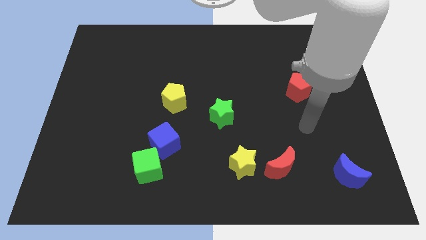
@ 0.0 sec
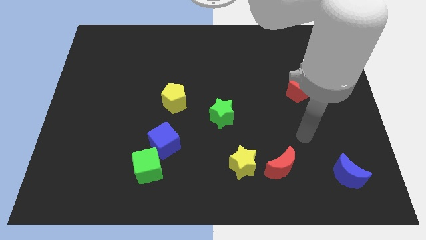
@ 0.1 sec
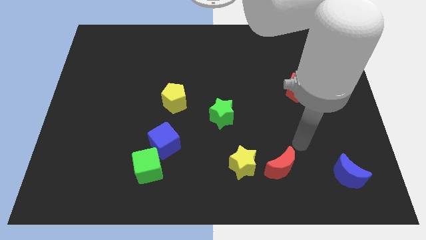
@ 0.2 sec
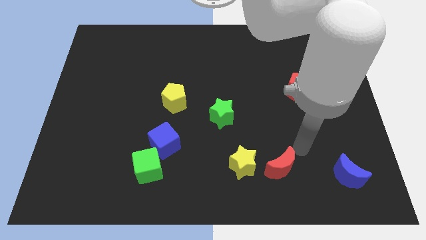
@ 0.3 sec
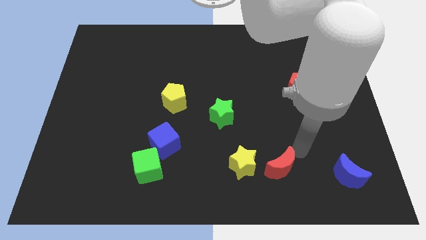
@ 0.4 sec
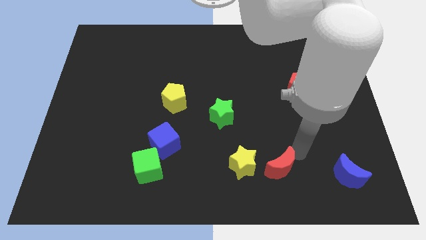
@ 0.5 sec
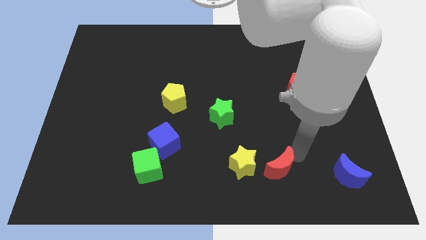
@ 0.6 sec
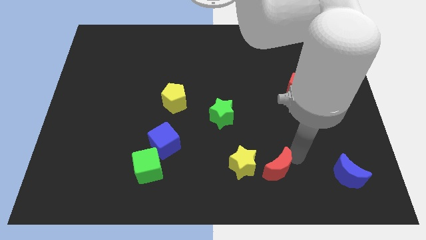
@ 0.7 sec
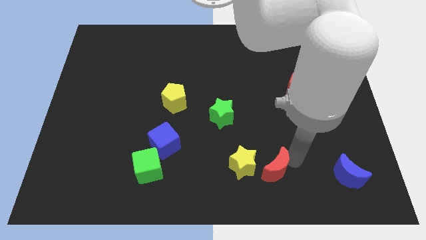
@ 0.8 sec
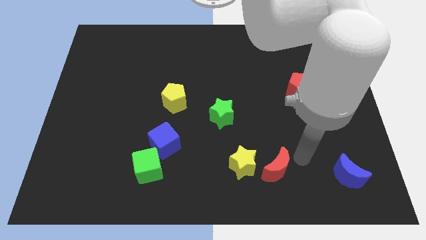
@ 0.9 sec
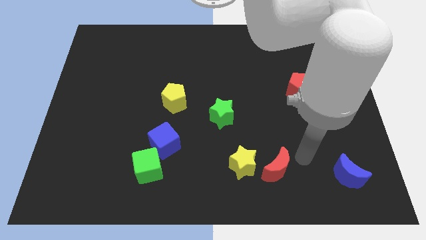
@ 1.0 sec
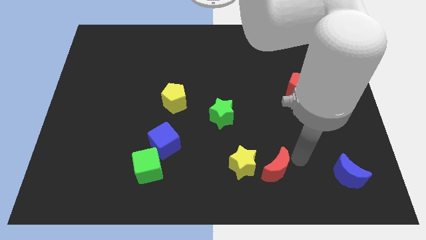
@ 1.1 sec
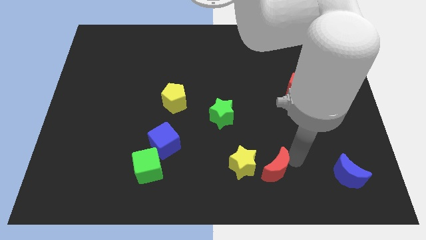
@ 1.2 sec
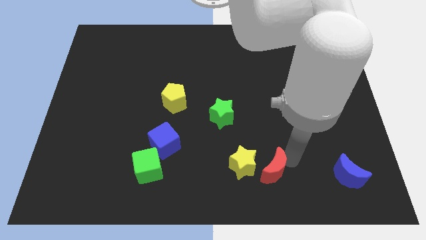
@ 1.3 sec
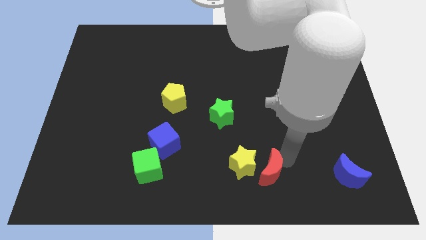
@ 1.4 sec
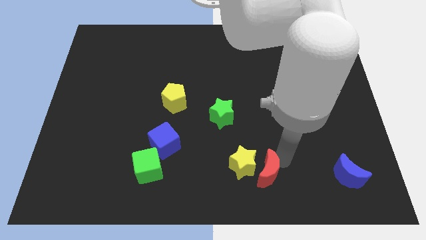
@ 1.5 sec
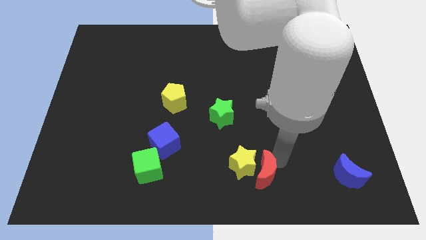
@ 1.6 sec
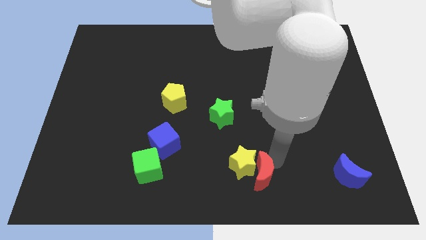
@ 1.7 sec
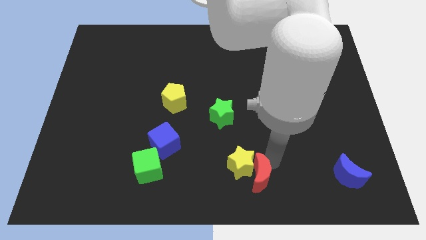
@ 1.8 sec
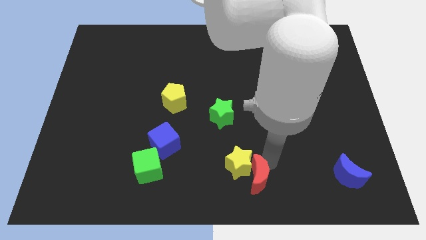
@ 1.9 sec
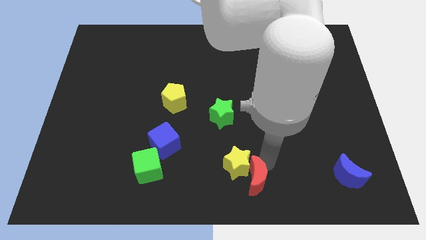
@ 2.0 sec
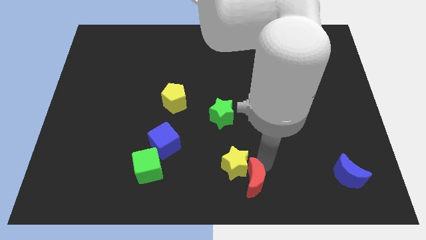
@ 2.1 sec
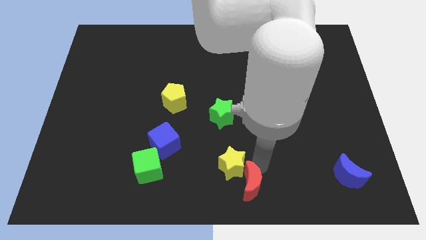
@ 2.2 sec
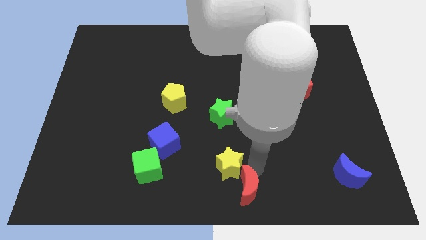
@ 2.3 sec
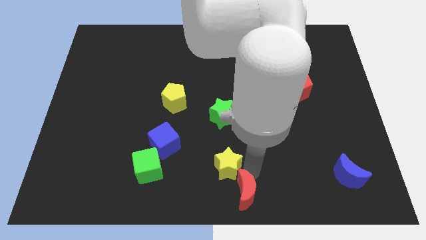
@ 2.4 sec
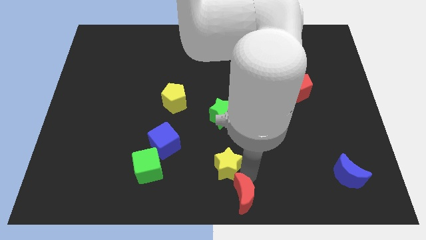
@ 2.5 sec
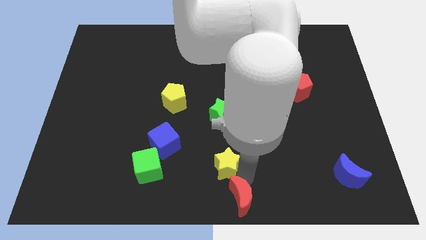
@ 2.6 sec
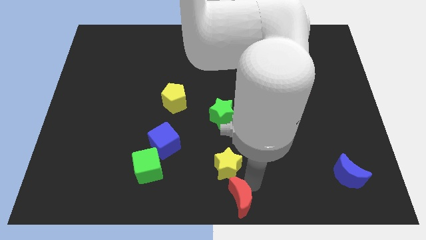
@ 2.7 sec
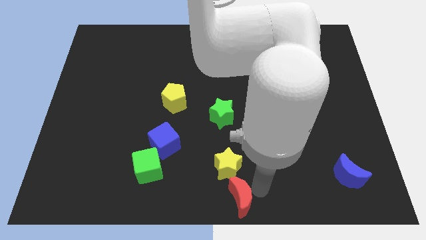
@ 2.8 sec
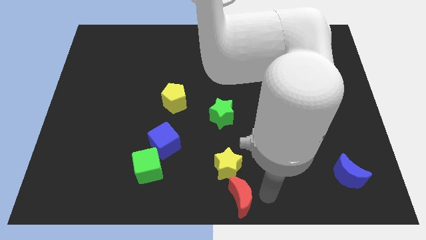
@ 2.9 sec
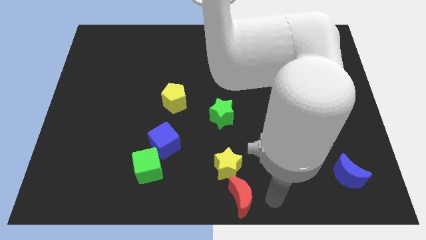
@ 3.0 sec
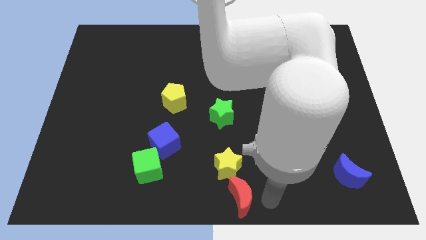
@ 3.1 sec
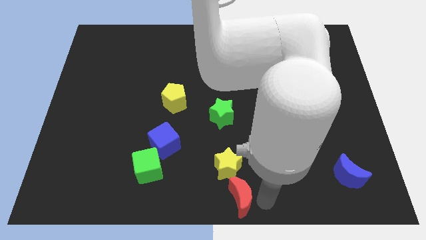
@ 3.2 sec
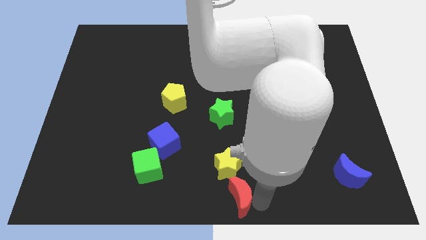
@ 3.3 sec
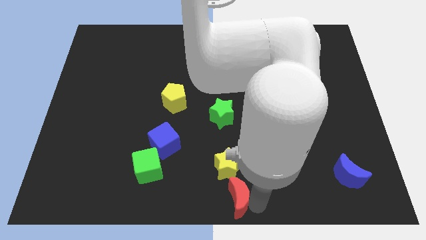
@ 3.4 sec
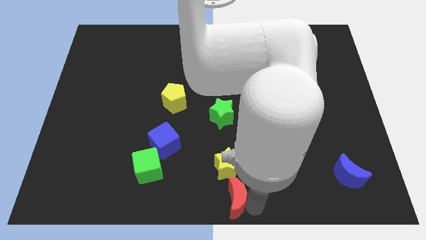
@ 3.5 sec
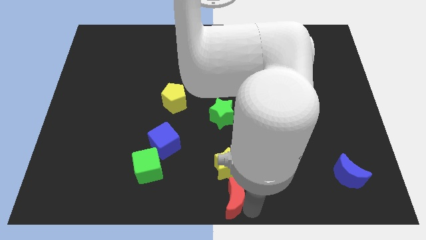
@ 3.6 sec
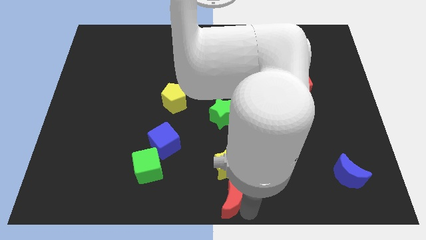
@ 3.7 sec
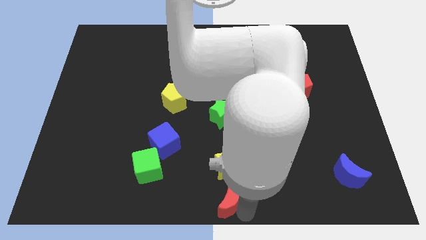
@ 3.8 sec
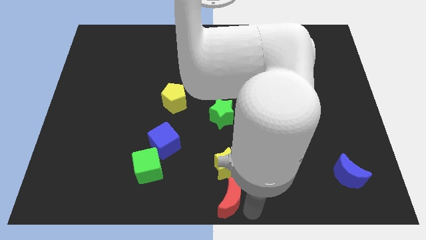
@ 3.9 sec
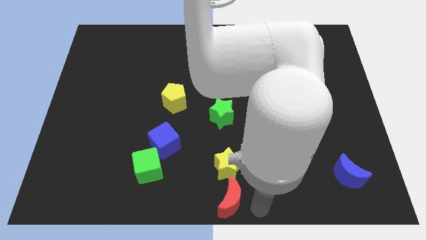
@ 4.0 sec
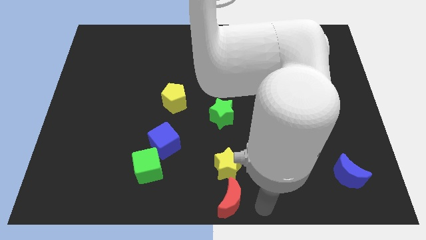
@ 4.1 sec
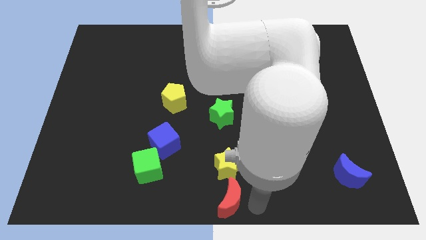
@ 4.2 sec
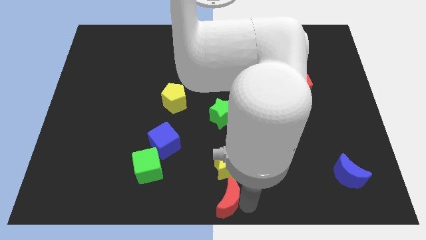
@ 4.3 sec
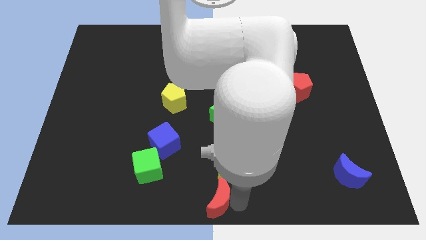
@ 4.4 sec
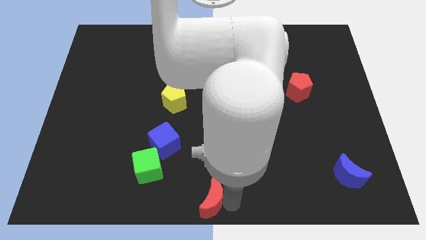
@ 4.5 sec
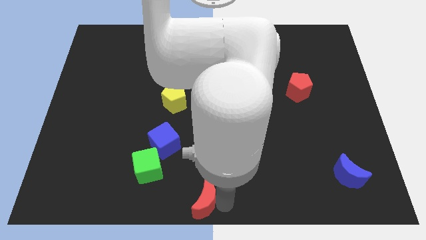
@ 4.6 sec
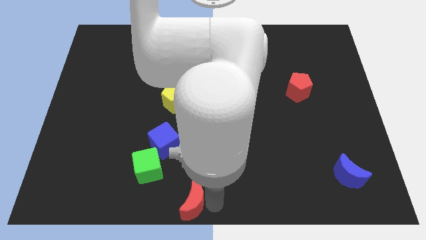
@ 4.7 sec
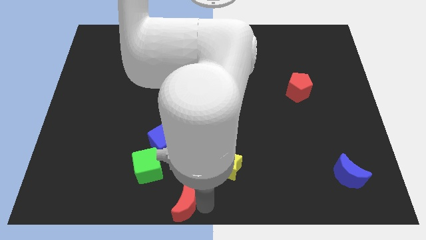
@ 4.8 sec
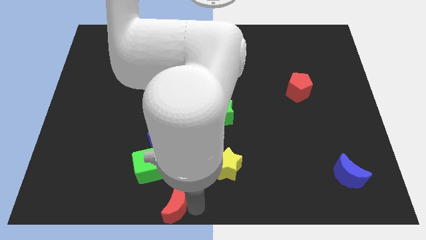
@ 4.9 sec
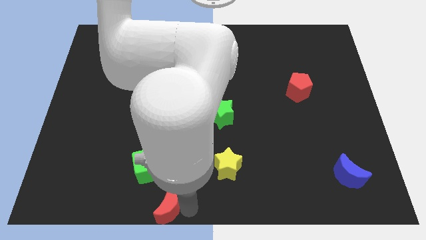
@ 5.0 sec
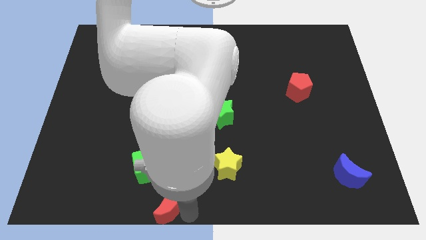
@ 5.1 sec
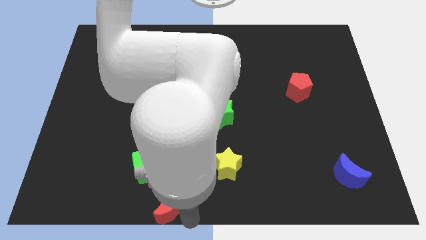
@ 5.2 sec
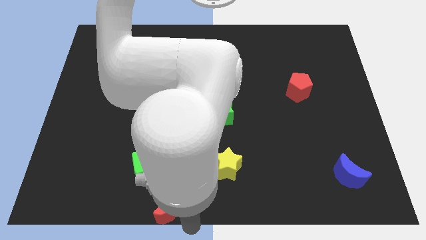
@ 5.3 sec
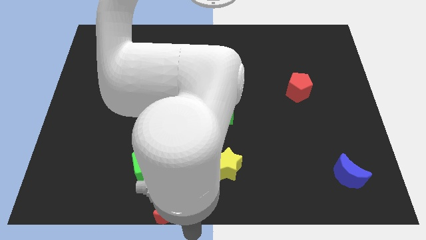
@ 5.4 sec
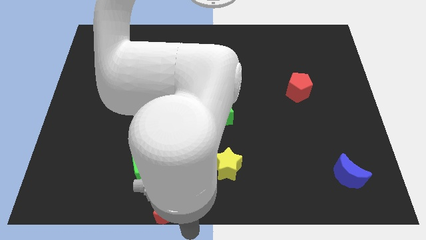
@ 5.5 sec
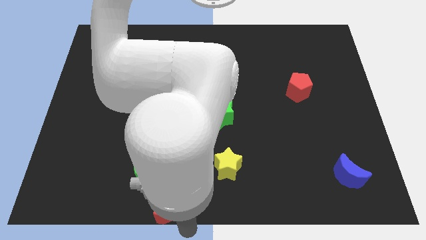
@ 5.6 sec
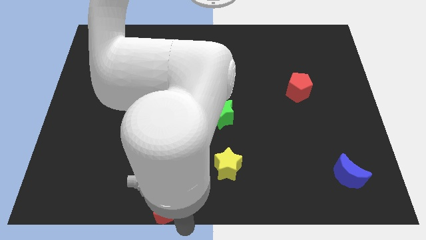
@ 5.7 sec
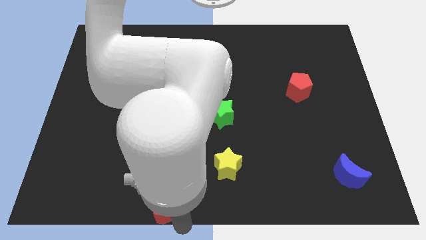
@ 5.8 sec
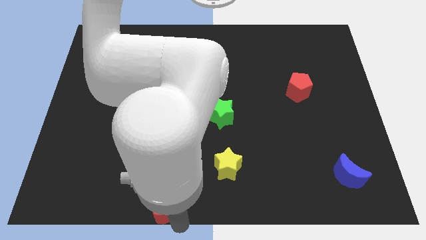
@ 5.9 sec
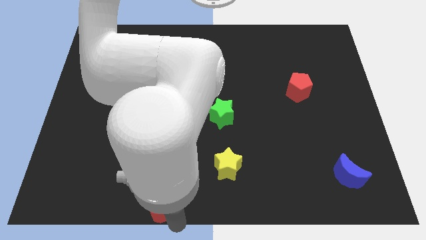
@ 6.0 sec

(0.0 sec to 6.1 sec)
push the red moon left

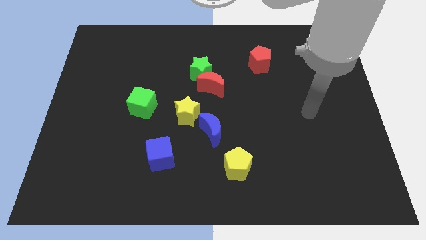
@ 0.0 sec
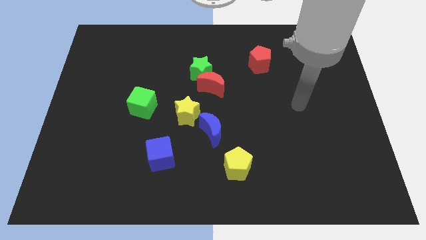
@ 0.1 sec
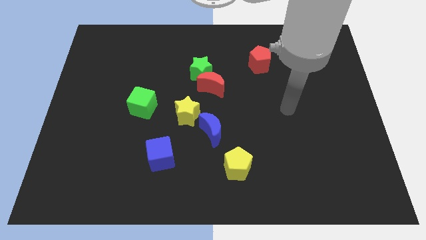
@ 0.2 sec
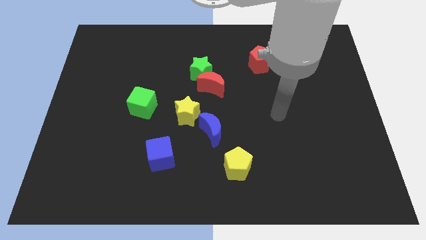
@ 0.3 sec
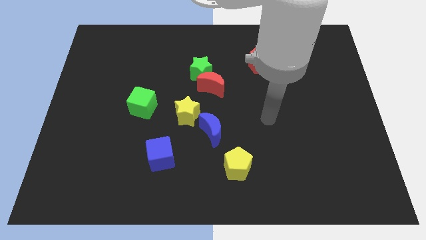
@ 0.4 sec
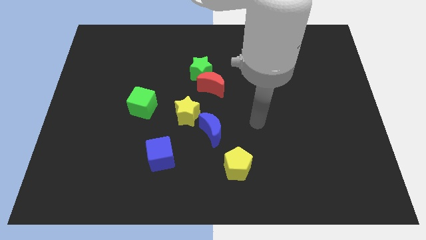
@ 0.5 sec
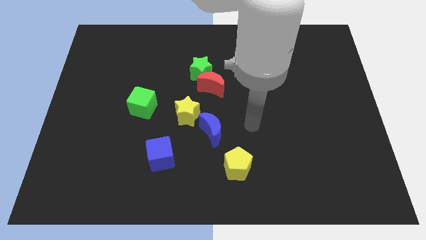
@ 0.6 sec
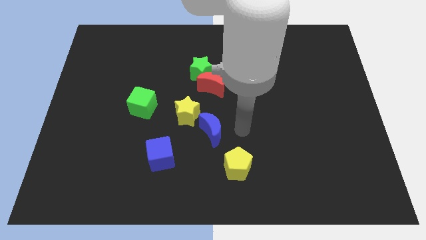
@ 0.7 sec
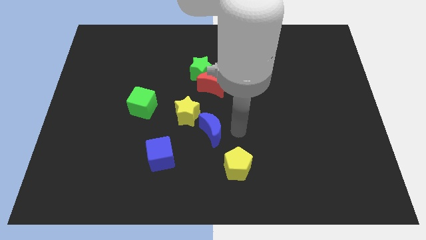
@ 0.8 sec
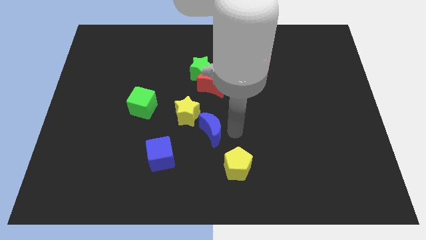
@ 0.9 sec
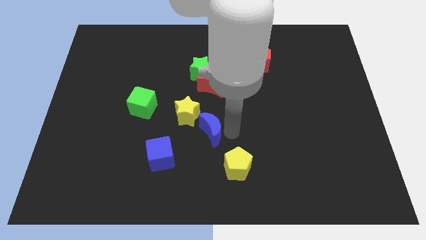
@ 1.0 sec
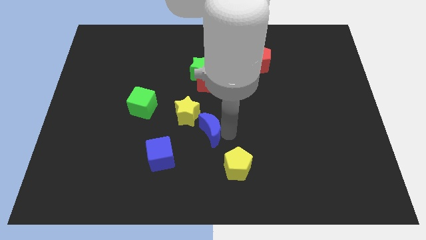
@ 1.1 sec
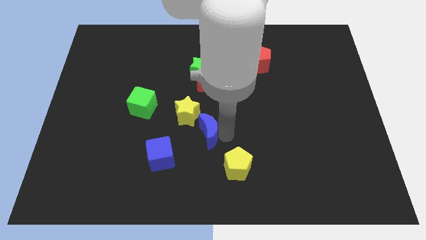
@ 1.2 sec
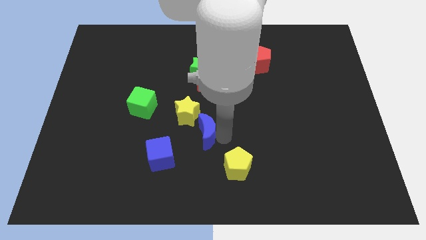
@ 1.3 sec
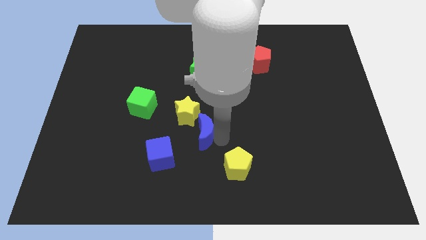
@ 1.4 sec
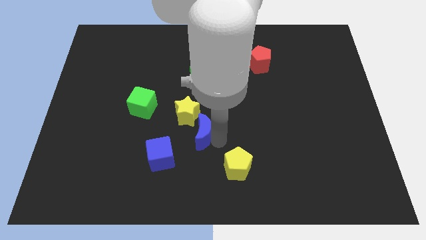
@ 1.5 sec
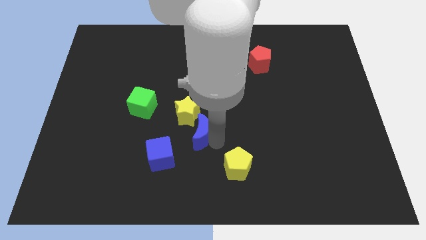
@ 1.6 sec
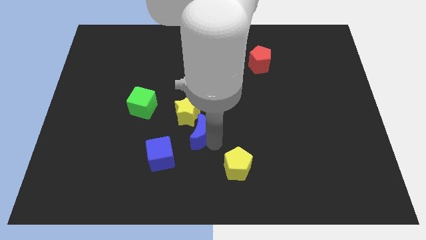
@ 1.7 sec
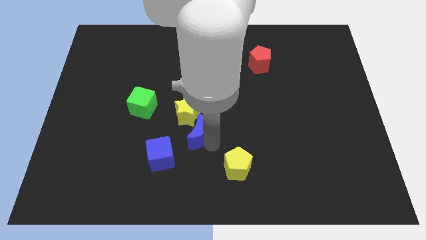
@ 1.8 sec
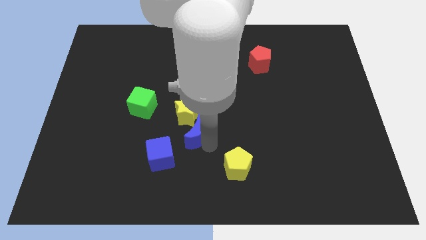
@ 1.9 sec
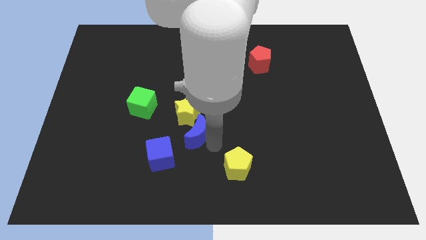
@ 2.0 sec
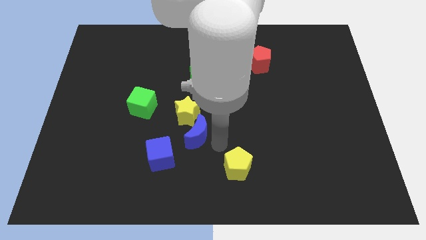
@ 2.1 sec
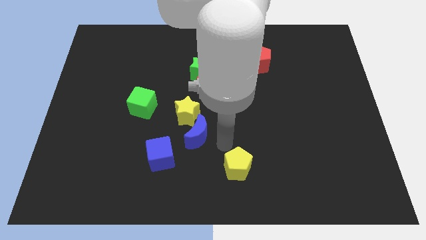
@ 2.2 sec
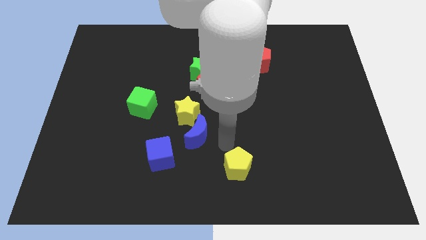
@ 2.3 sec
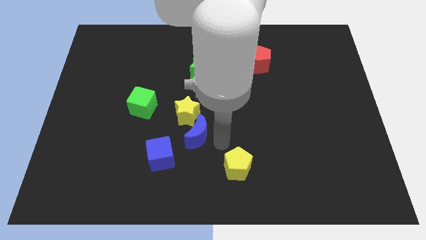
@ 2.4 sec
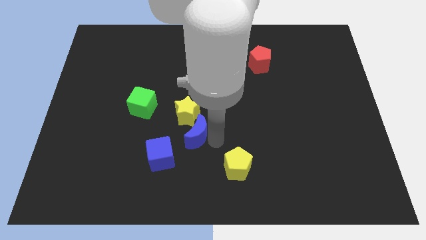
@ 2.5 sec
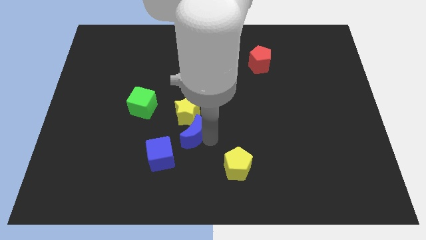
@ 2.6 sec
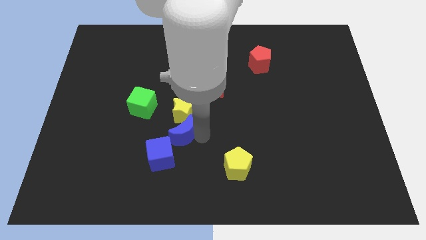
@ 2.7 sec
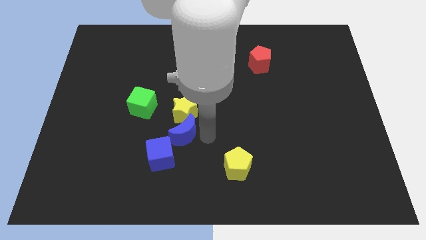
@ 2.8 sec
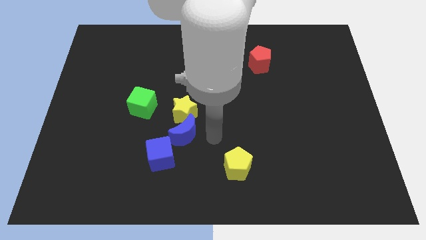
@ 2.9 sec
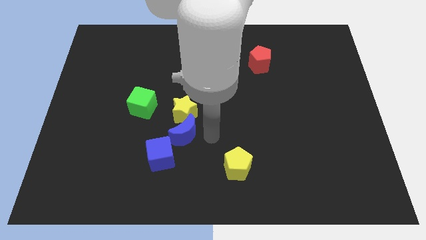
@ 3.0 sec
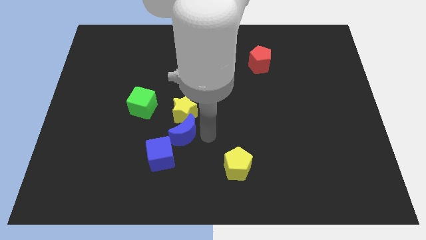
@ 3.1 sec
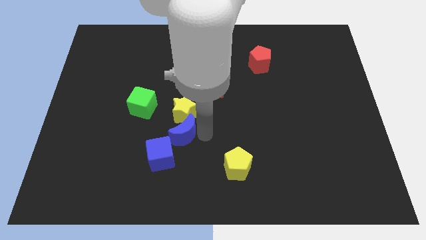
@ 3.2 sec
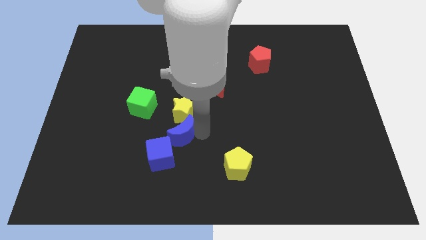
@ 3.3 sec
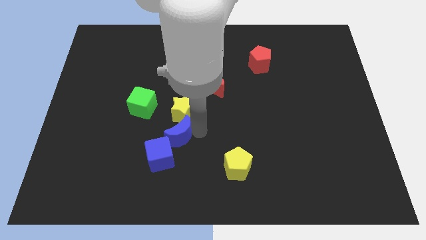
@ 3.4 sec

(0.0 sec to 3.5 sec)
slightly slide the blue moon to the left
